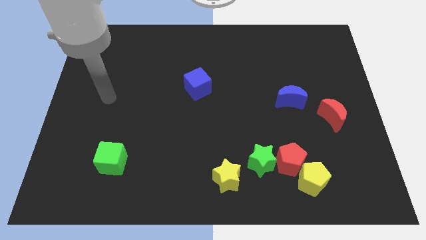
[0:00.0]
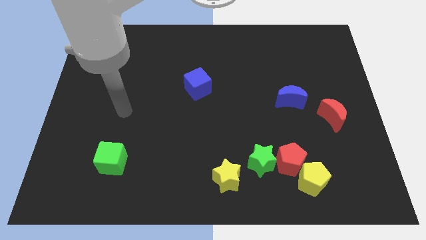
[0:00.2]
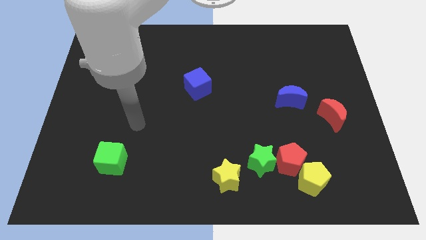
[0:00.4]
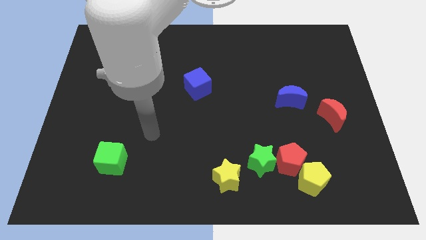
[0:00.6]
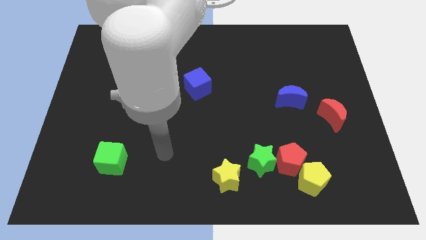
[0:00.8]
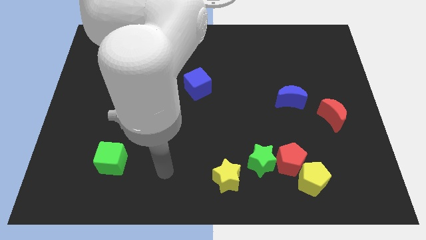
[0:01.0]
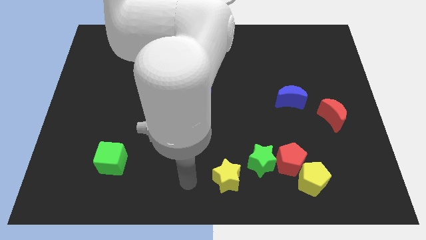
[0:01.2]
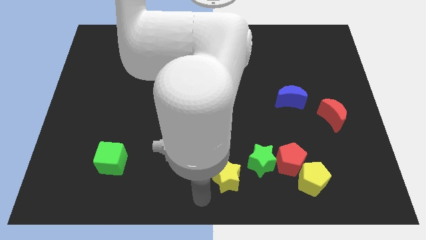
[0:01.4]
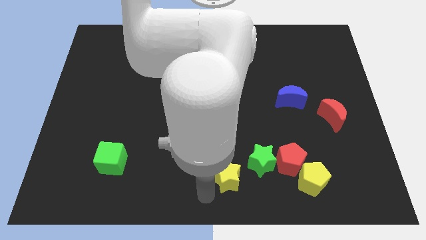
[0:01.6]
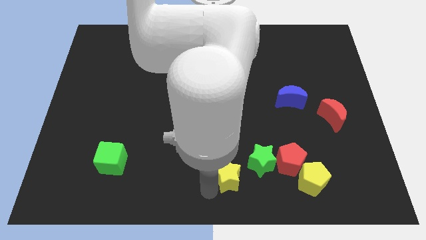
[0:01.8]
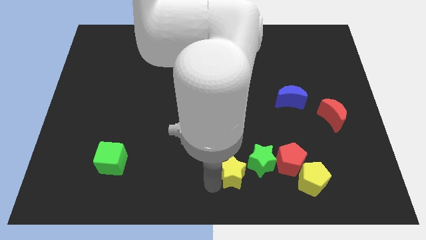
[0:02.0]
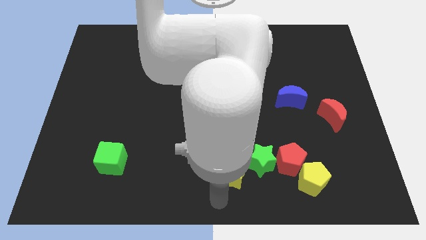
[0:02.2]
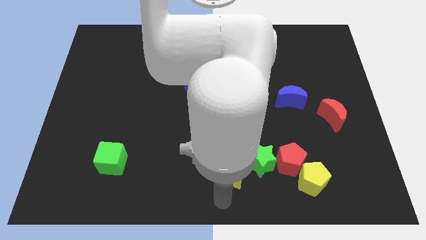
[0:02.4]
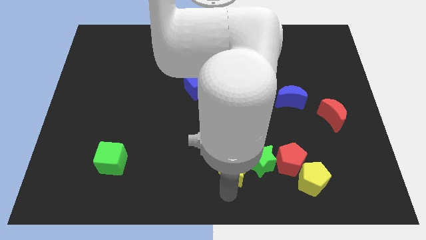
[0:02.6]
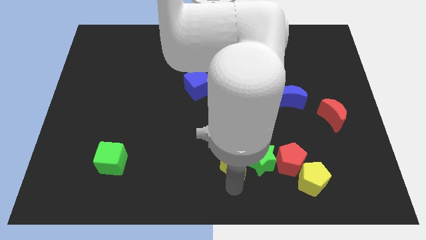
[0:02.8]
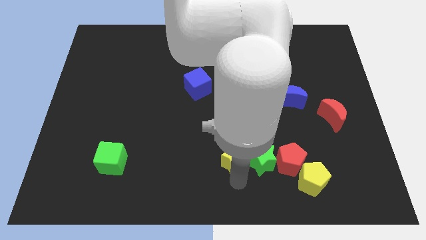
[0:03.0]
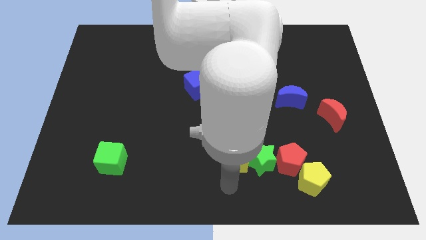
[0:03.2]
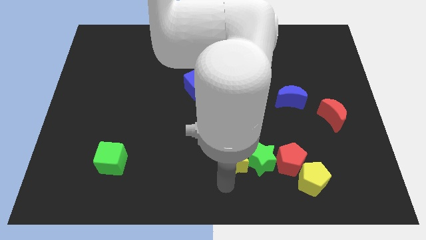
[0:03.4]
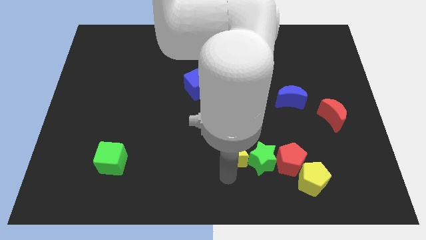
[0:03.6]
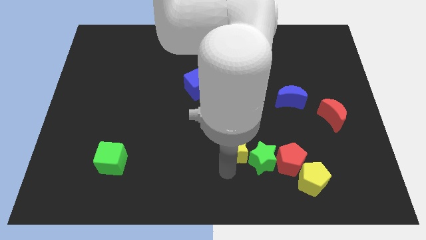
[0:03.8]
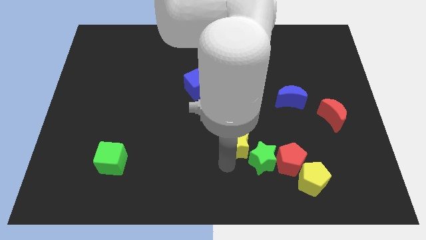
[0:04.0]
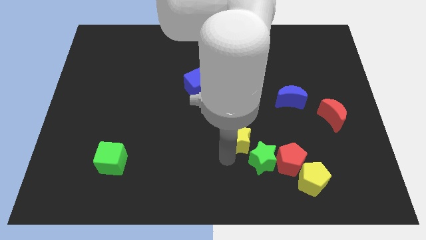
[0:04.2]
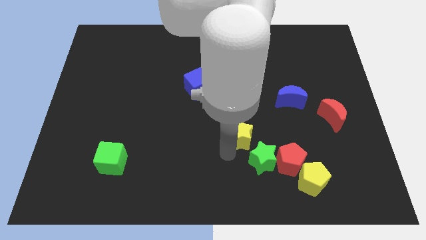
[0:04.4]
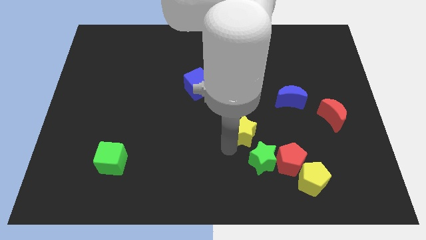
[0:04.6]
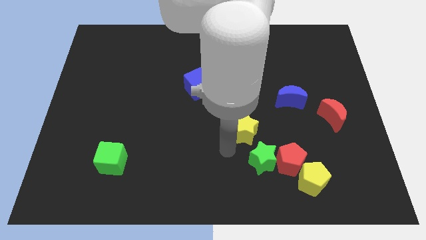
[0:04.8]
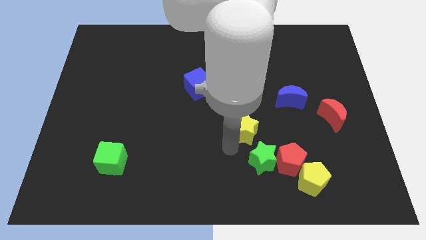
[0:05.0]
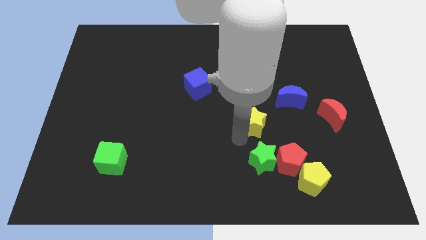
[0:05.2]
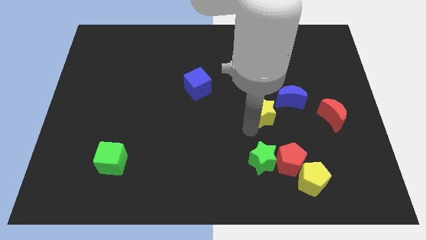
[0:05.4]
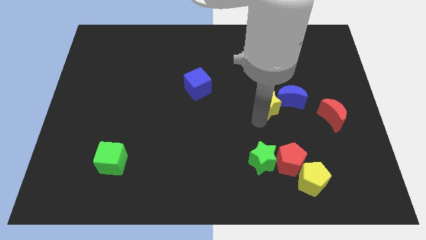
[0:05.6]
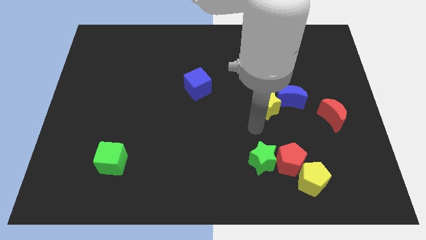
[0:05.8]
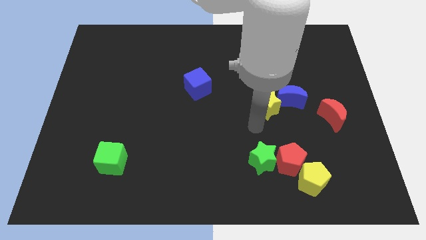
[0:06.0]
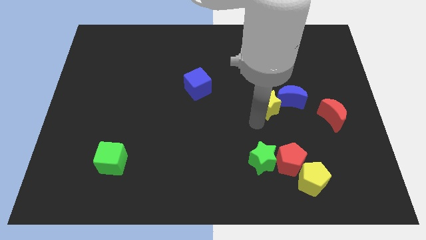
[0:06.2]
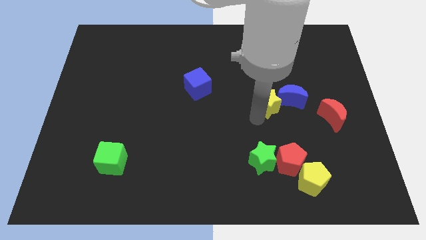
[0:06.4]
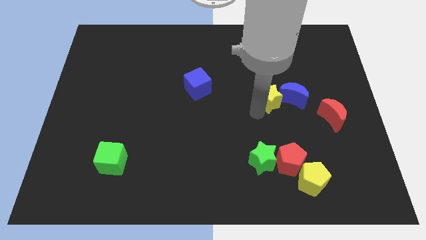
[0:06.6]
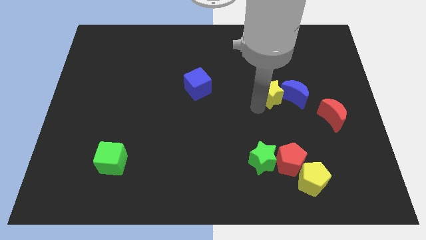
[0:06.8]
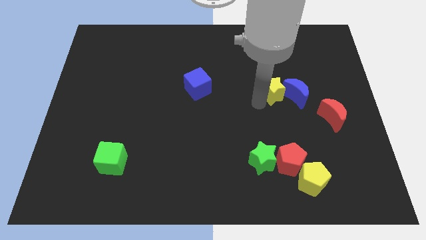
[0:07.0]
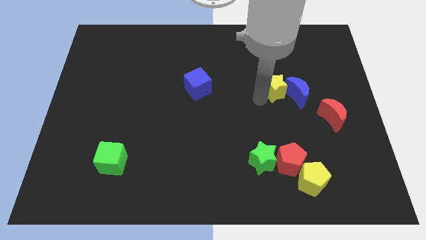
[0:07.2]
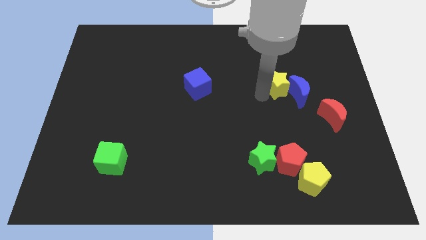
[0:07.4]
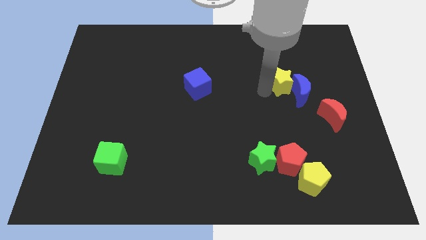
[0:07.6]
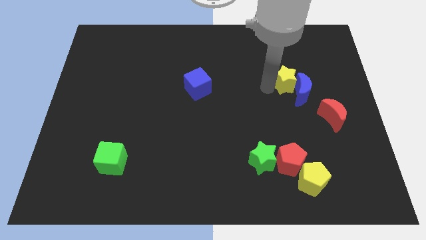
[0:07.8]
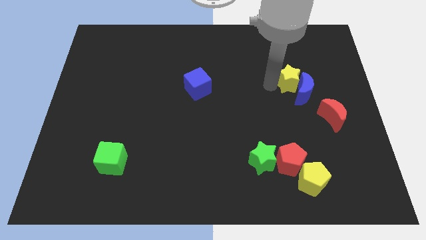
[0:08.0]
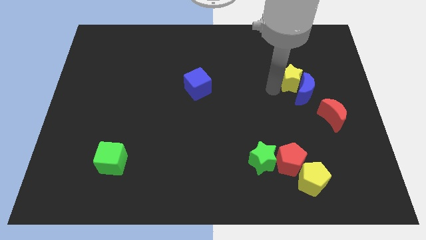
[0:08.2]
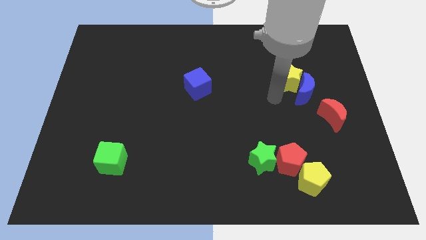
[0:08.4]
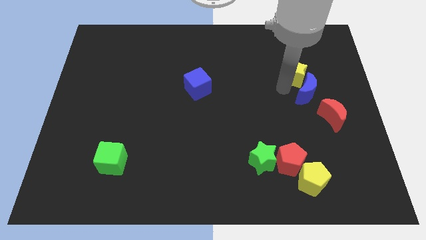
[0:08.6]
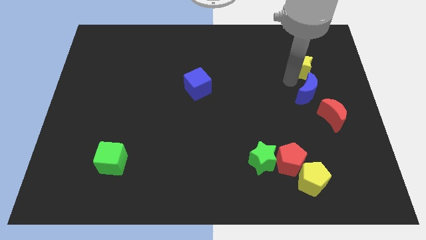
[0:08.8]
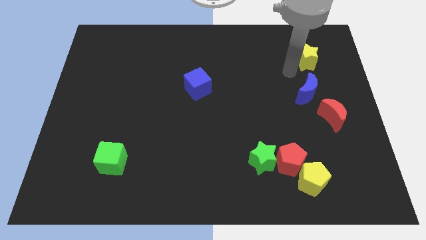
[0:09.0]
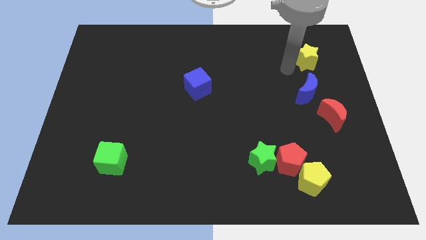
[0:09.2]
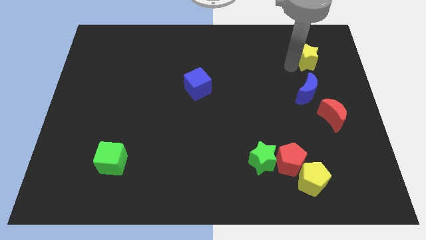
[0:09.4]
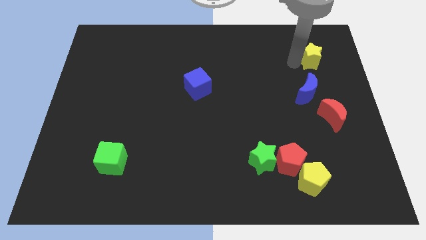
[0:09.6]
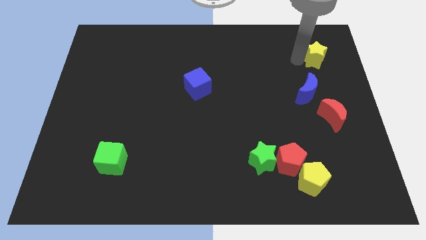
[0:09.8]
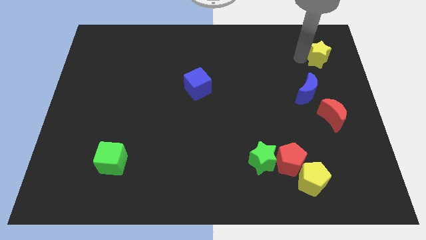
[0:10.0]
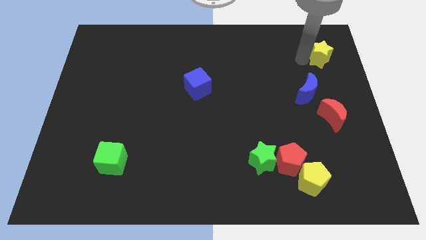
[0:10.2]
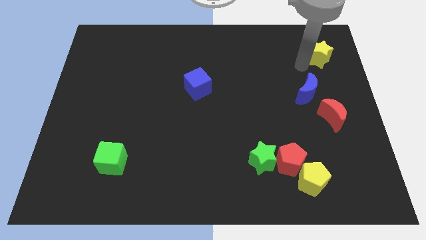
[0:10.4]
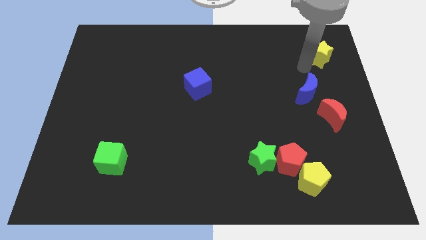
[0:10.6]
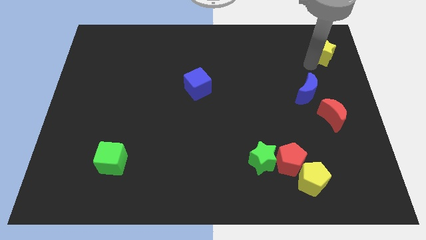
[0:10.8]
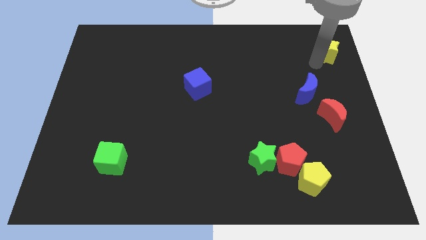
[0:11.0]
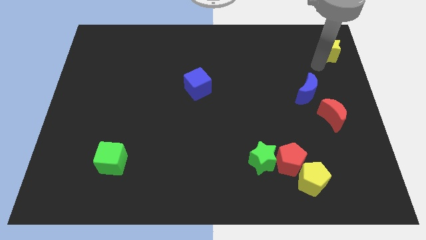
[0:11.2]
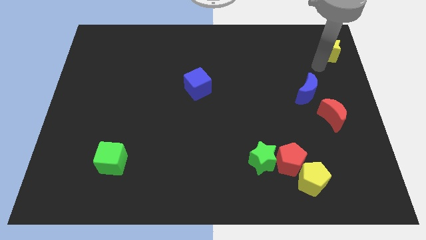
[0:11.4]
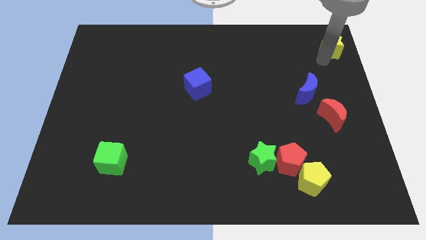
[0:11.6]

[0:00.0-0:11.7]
put the yellow star to the top right of the board
